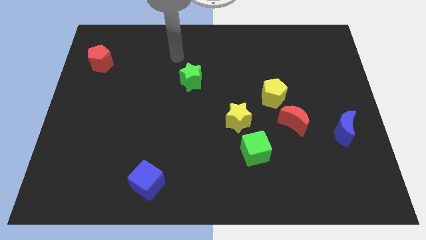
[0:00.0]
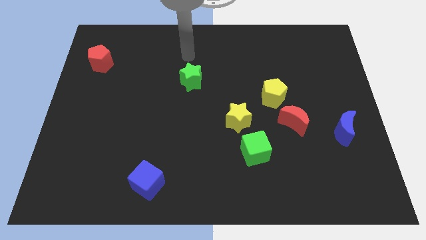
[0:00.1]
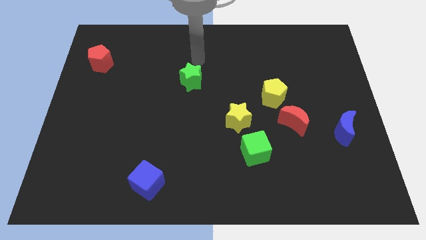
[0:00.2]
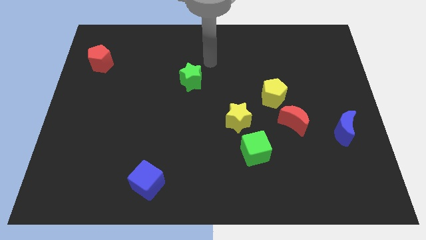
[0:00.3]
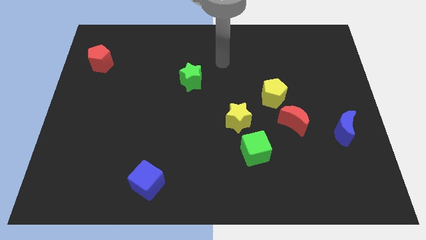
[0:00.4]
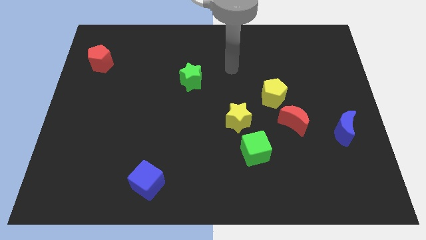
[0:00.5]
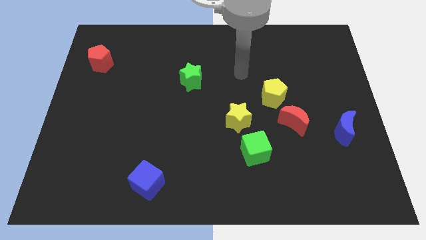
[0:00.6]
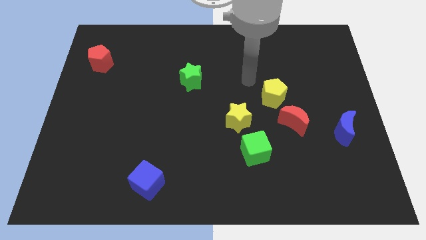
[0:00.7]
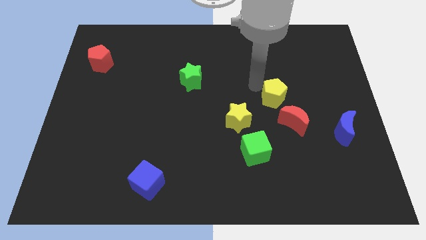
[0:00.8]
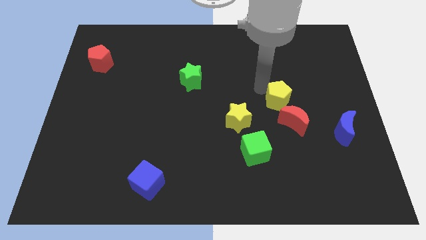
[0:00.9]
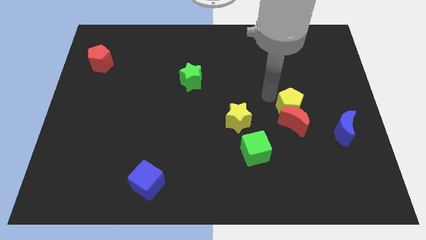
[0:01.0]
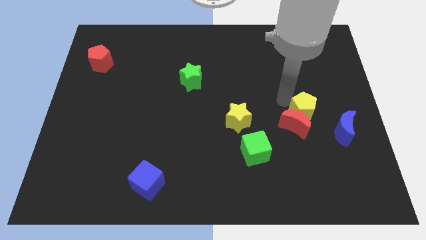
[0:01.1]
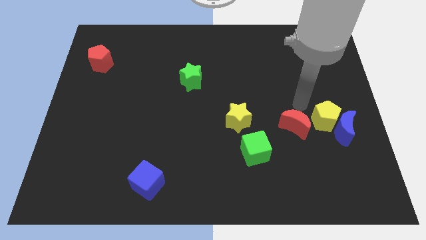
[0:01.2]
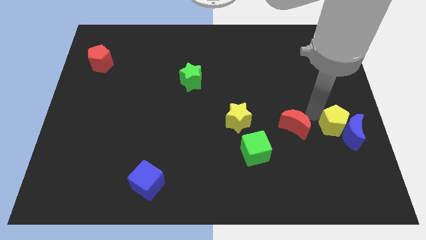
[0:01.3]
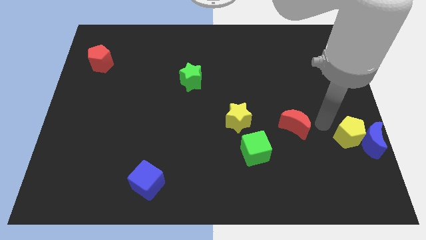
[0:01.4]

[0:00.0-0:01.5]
separate the red moon from the yellow pentagon

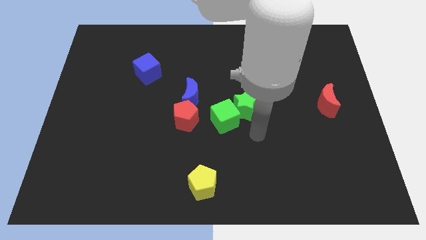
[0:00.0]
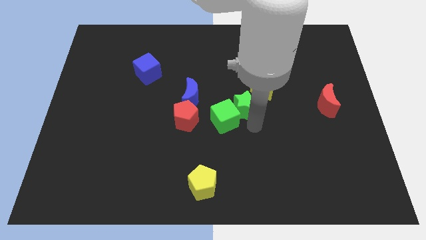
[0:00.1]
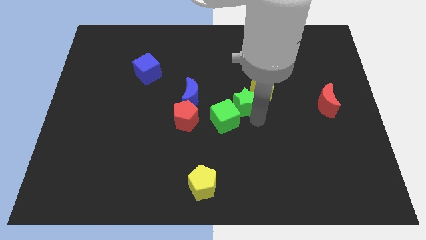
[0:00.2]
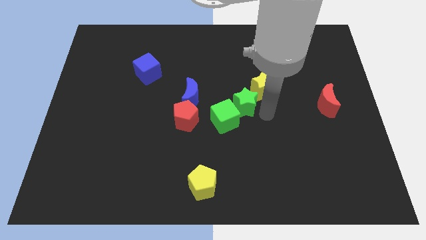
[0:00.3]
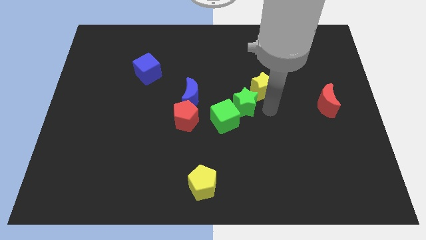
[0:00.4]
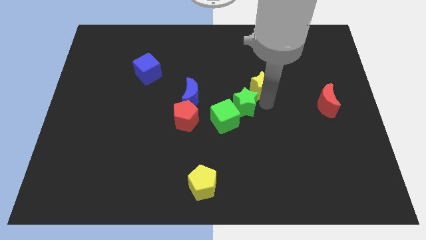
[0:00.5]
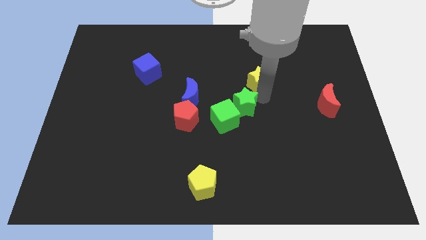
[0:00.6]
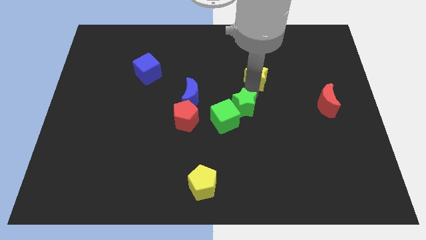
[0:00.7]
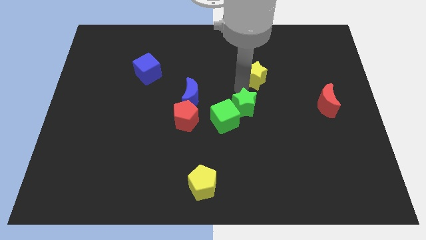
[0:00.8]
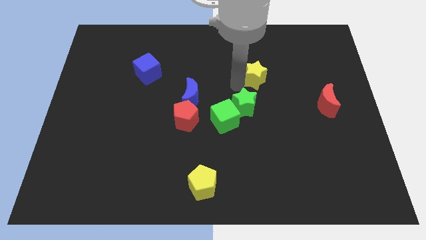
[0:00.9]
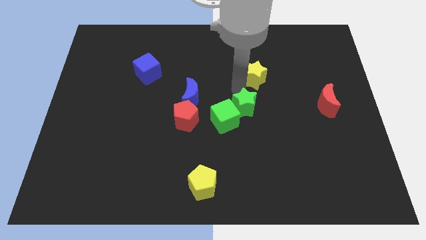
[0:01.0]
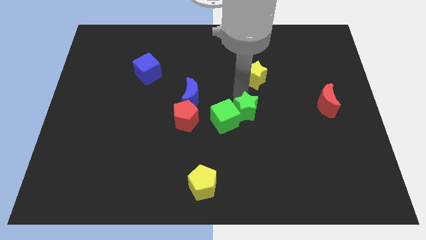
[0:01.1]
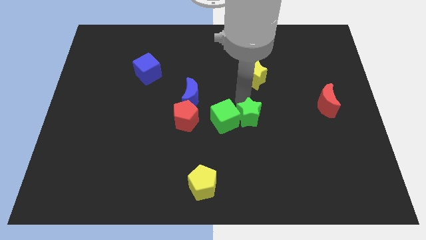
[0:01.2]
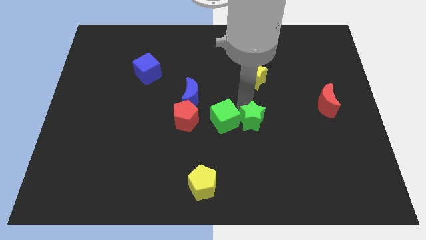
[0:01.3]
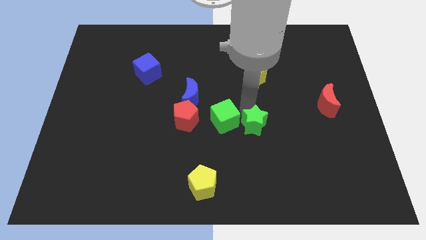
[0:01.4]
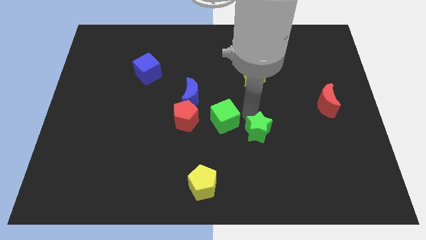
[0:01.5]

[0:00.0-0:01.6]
move the green star away from the green cube and yellow star

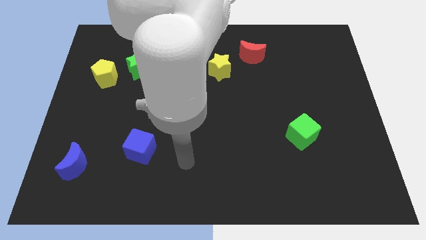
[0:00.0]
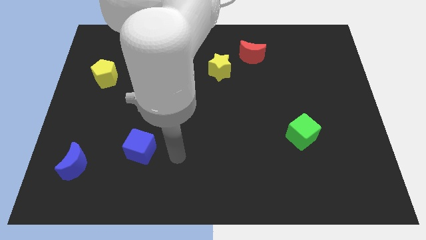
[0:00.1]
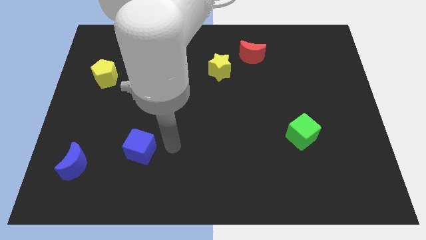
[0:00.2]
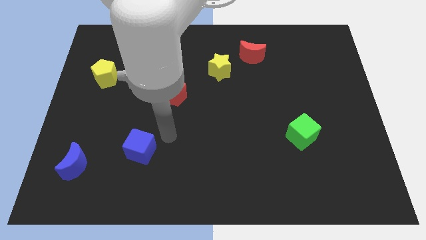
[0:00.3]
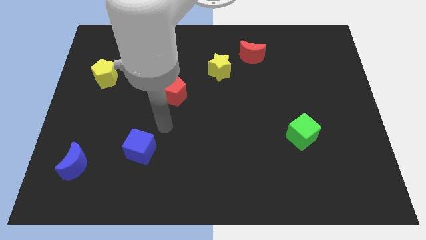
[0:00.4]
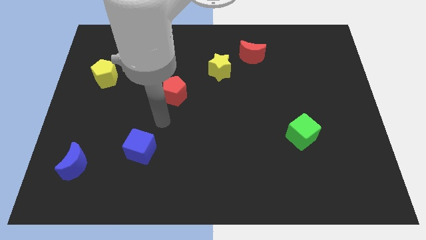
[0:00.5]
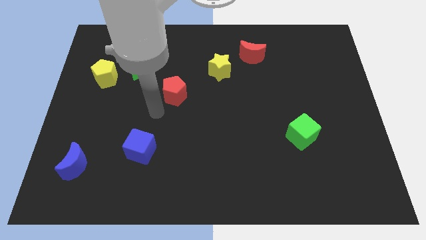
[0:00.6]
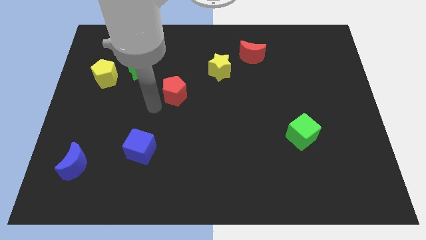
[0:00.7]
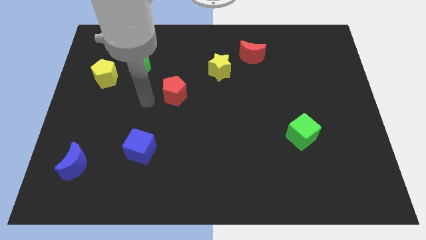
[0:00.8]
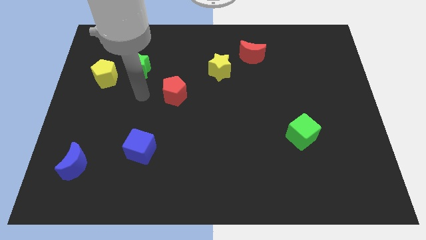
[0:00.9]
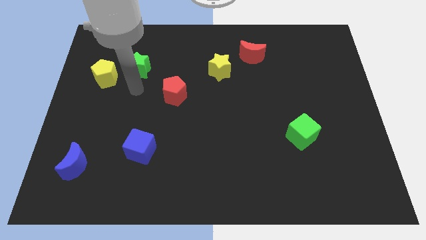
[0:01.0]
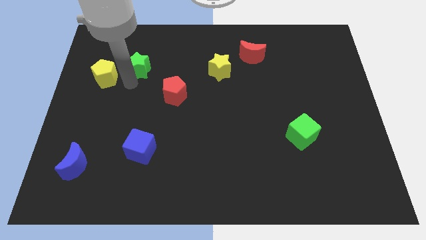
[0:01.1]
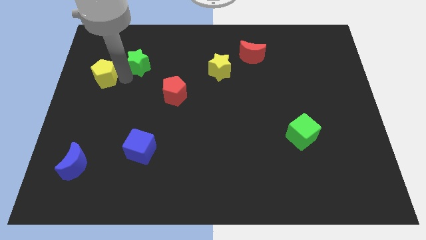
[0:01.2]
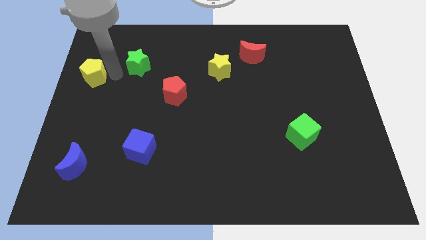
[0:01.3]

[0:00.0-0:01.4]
separate the green star from the yellow pentagon

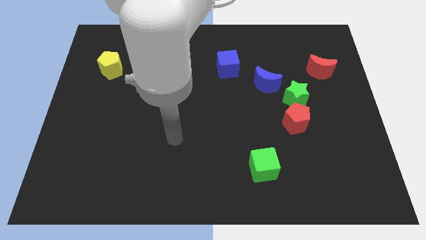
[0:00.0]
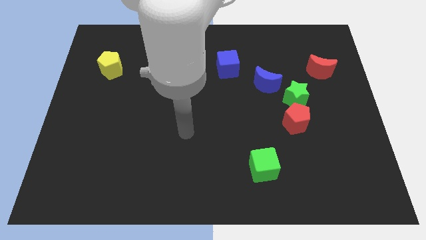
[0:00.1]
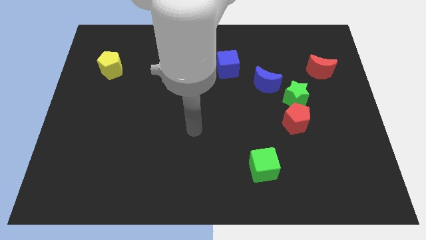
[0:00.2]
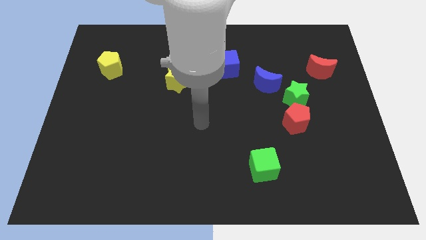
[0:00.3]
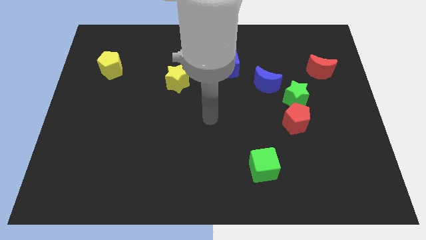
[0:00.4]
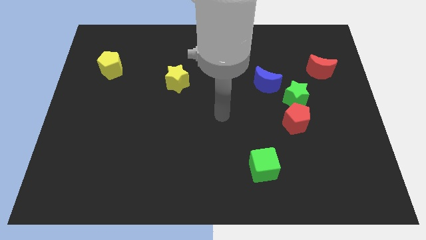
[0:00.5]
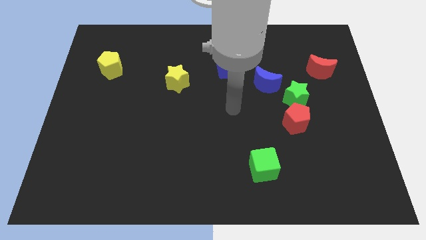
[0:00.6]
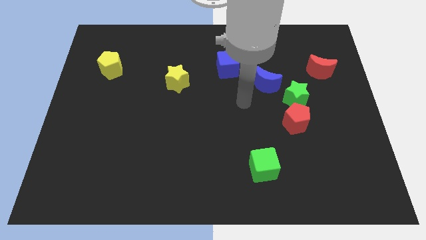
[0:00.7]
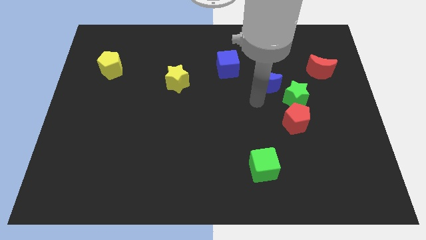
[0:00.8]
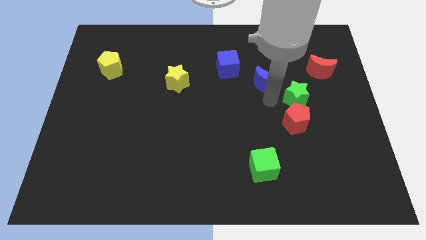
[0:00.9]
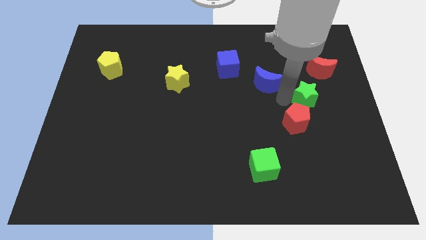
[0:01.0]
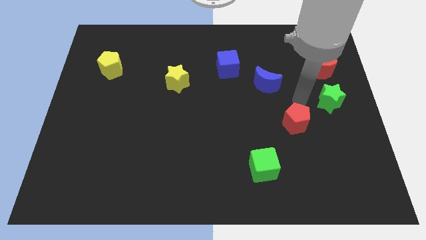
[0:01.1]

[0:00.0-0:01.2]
move the red pentagon away from the green star

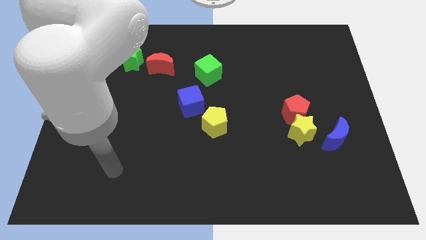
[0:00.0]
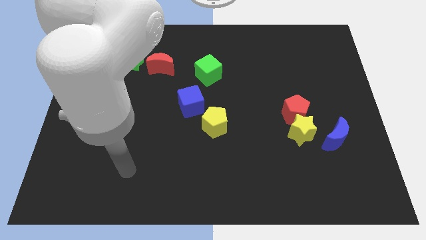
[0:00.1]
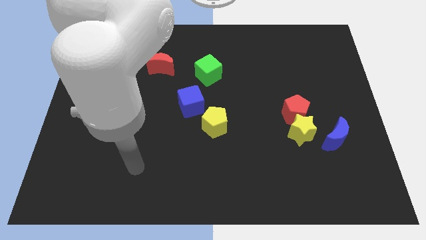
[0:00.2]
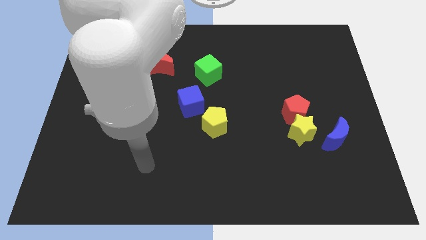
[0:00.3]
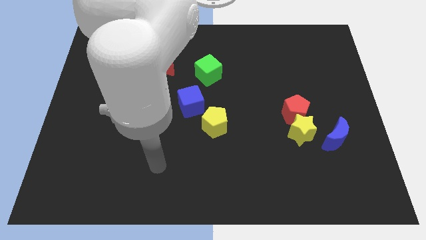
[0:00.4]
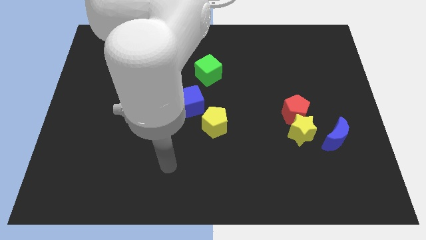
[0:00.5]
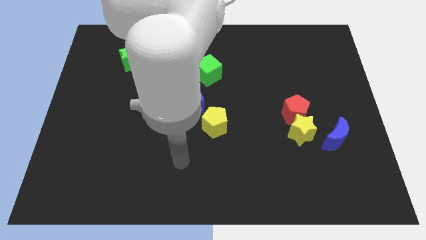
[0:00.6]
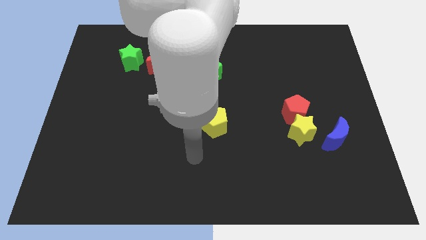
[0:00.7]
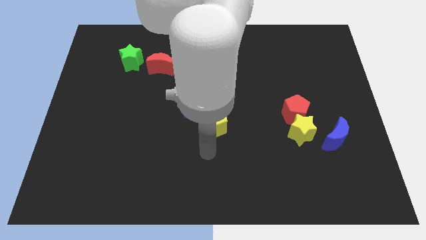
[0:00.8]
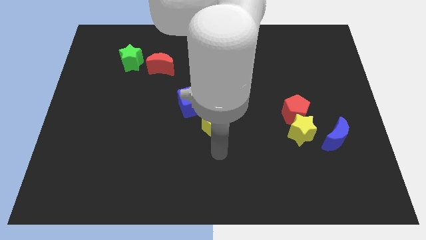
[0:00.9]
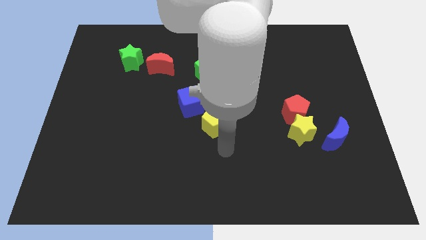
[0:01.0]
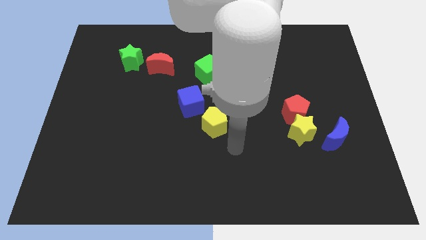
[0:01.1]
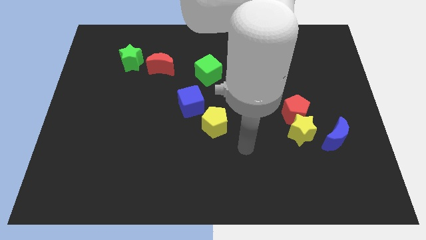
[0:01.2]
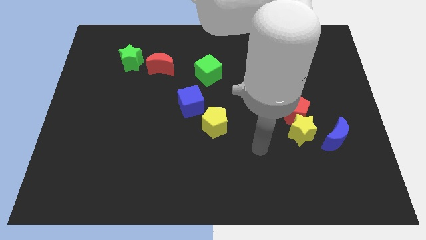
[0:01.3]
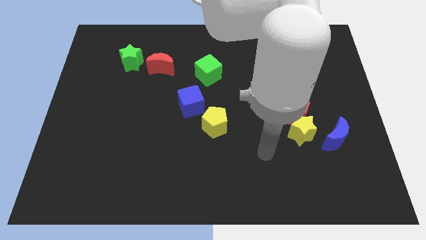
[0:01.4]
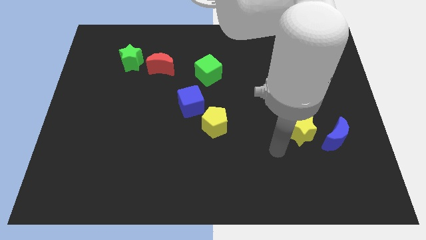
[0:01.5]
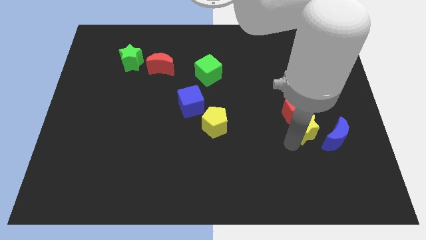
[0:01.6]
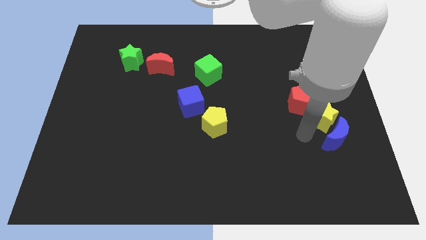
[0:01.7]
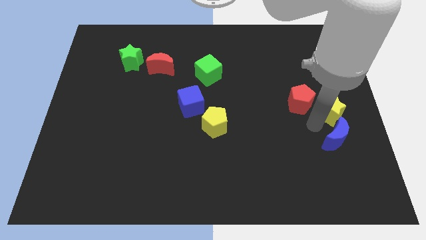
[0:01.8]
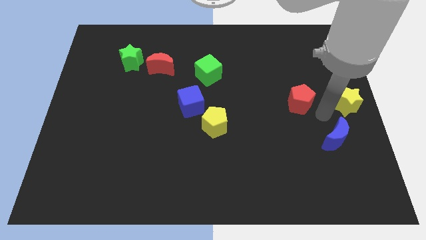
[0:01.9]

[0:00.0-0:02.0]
pull the red pentagon apart from the yellow star

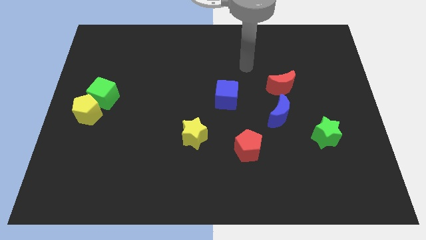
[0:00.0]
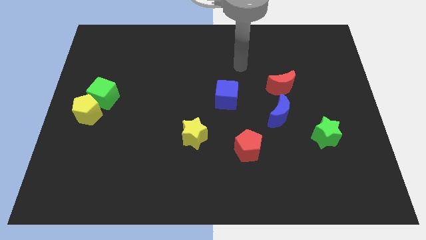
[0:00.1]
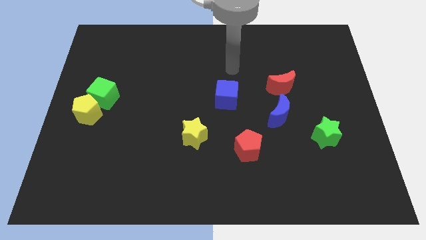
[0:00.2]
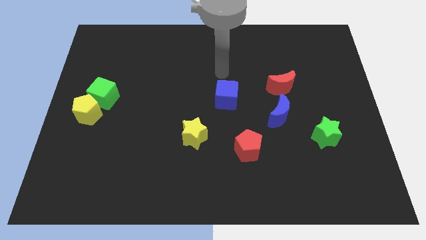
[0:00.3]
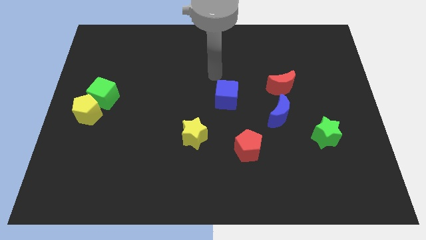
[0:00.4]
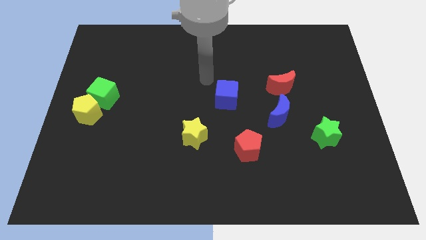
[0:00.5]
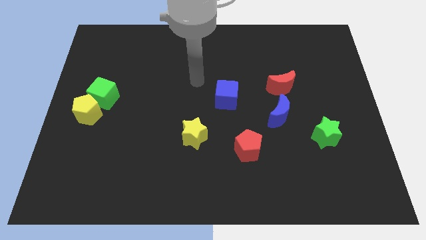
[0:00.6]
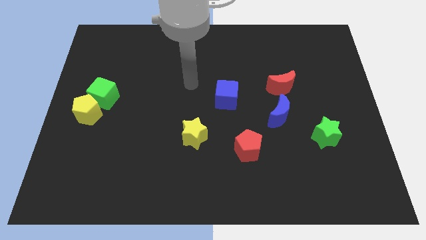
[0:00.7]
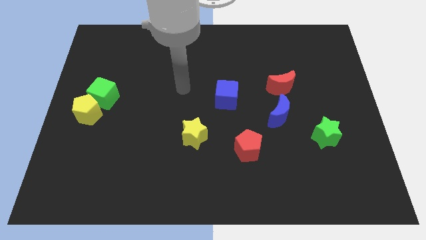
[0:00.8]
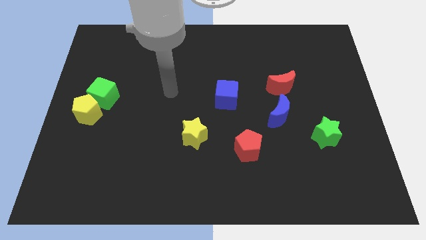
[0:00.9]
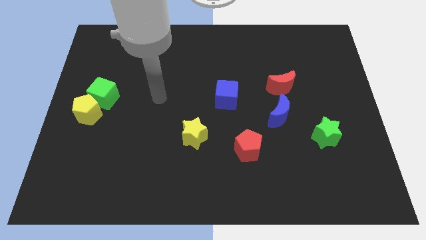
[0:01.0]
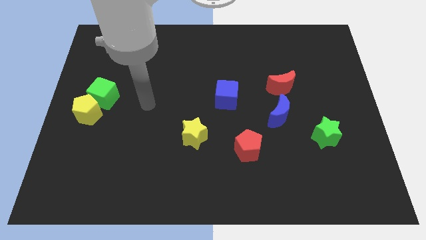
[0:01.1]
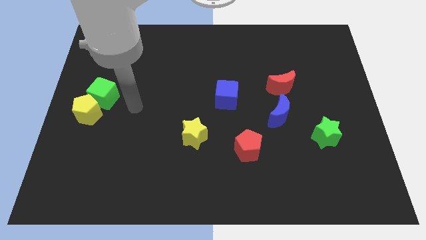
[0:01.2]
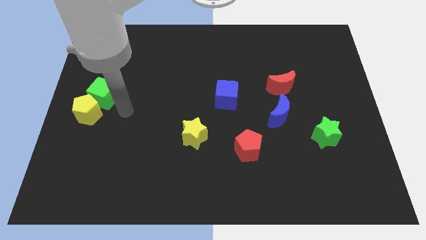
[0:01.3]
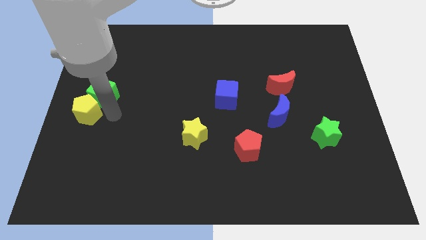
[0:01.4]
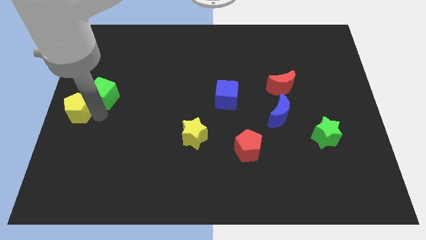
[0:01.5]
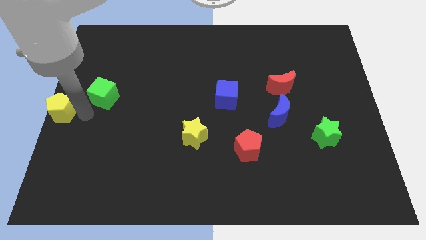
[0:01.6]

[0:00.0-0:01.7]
move the green cube away from the yellow pentagon

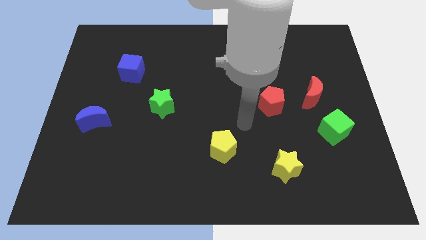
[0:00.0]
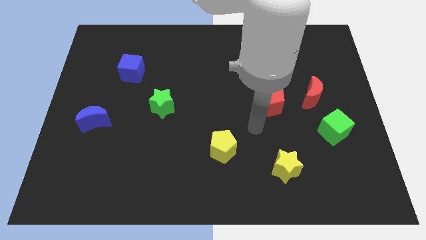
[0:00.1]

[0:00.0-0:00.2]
separate the red moon from the green cube
